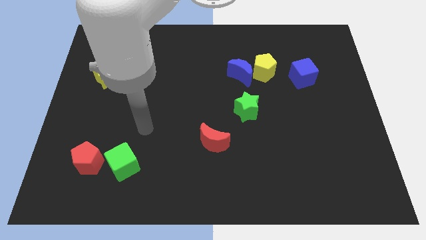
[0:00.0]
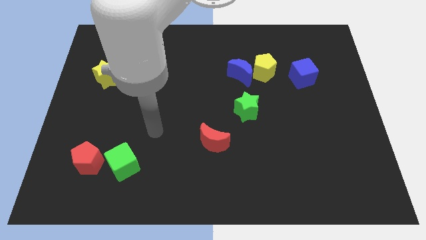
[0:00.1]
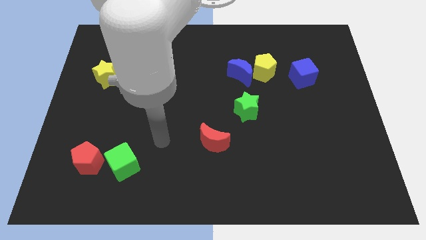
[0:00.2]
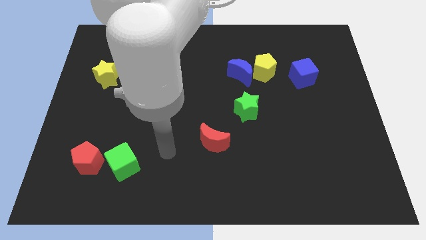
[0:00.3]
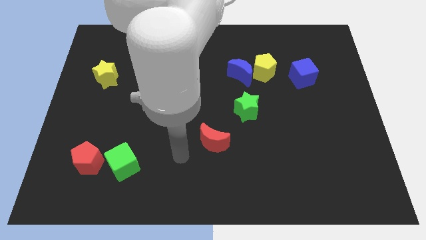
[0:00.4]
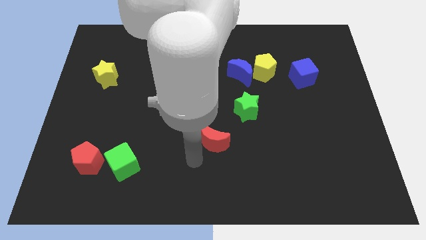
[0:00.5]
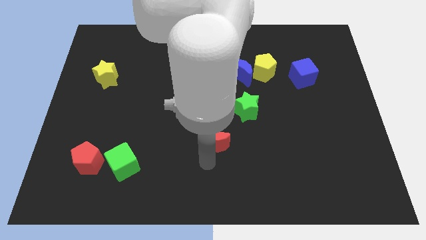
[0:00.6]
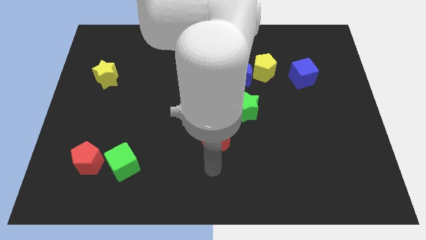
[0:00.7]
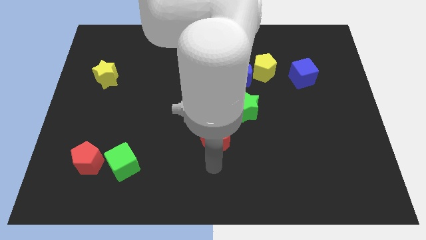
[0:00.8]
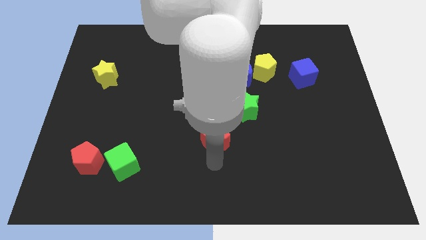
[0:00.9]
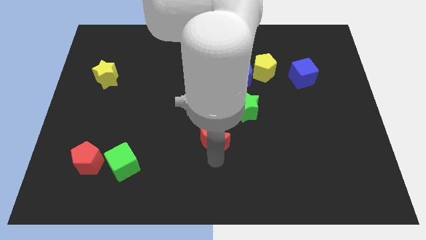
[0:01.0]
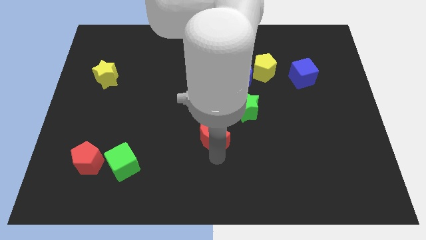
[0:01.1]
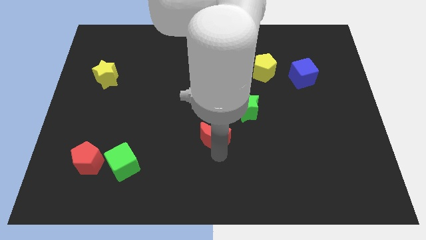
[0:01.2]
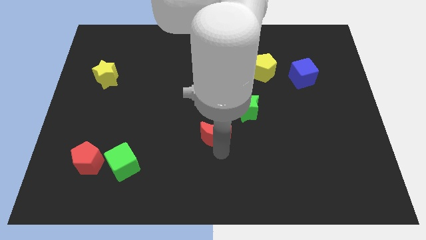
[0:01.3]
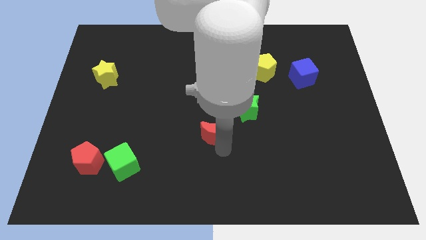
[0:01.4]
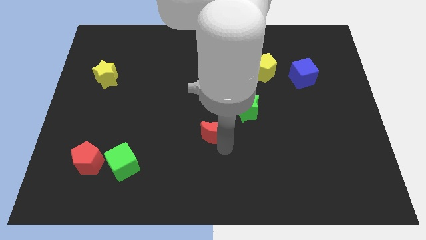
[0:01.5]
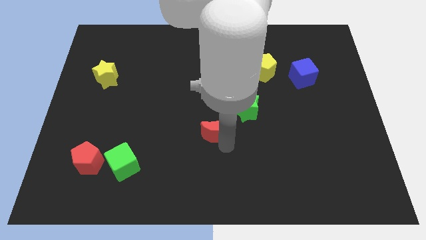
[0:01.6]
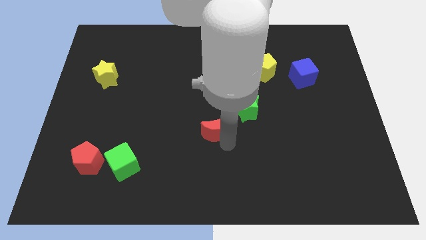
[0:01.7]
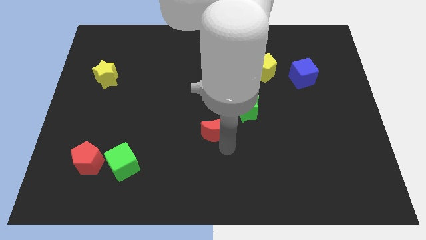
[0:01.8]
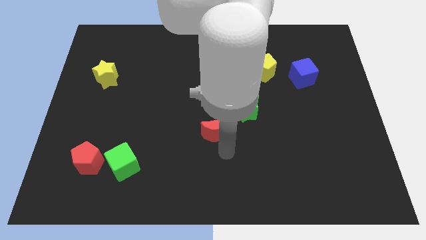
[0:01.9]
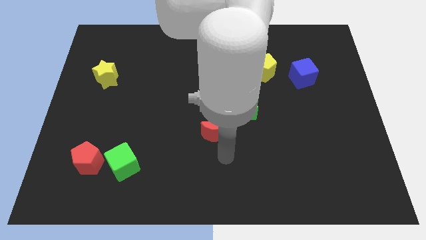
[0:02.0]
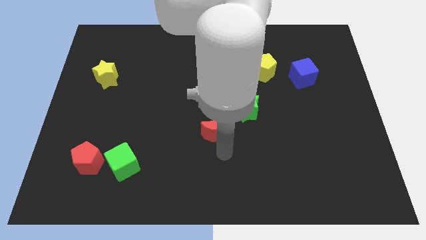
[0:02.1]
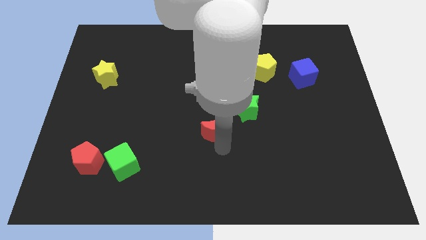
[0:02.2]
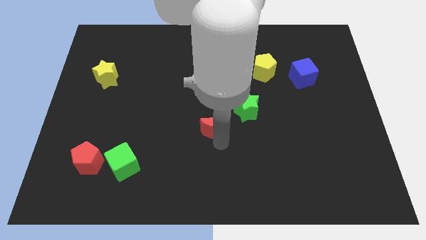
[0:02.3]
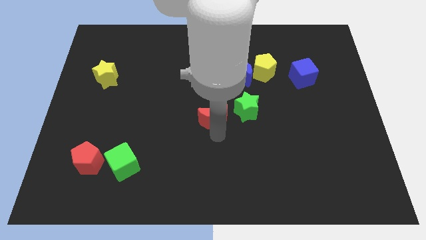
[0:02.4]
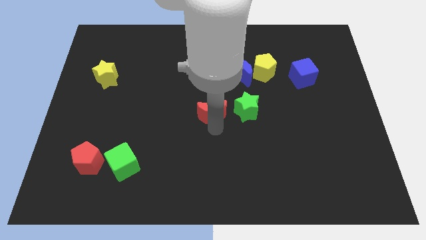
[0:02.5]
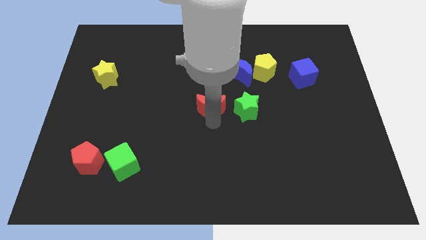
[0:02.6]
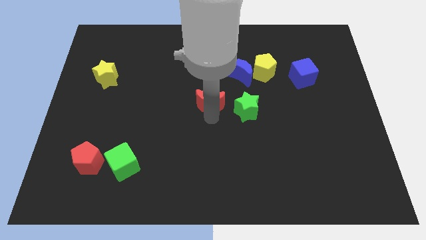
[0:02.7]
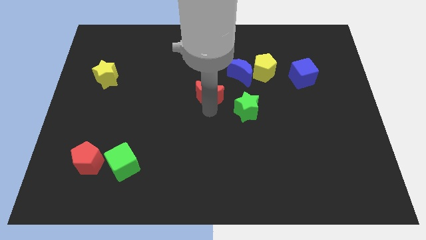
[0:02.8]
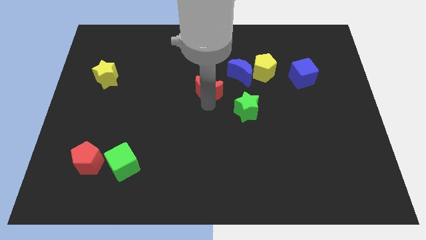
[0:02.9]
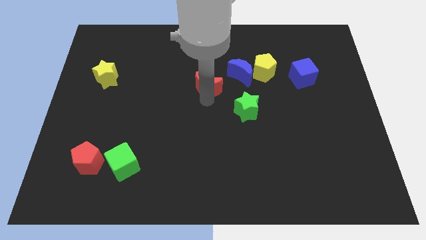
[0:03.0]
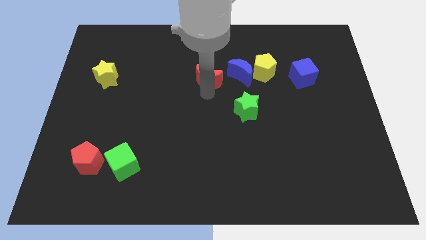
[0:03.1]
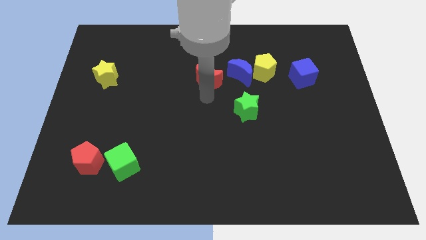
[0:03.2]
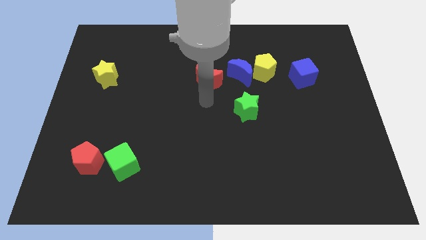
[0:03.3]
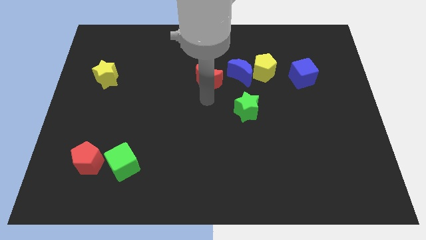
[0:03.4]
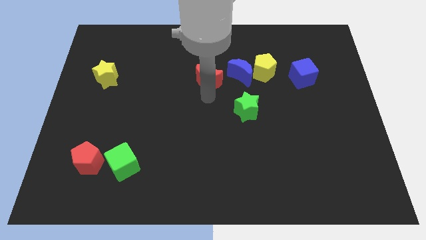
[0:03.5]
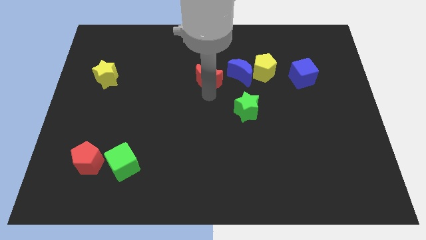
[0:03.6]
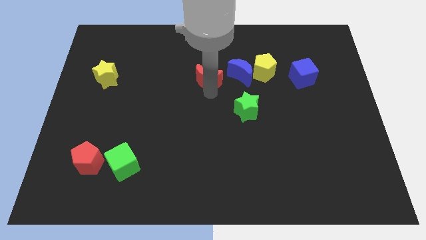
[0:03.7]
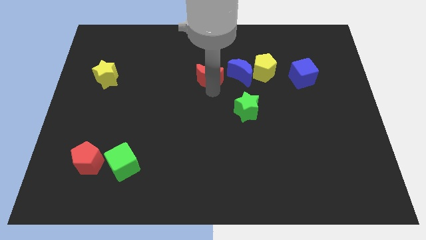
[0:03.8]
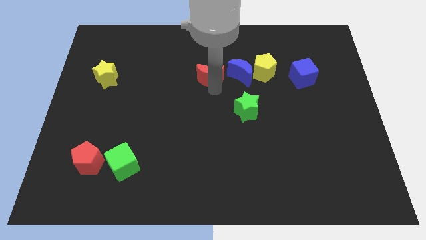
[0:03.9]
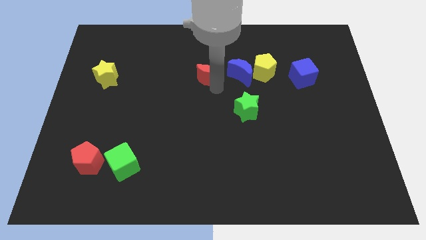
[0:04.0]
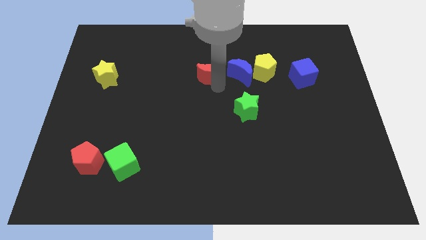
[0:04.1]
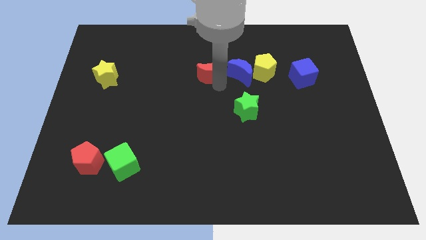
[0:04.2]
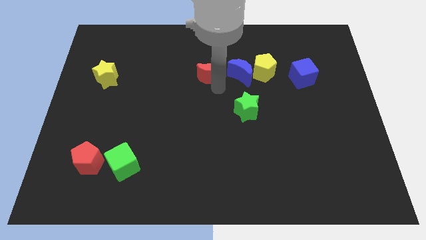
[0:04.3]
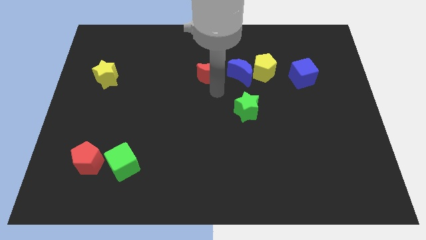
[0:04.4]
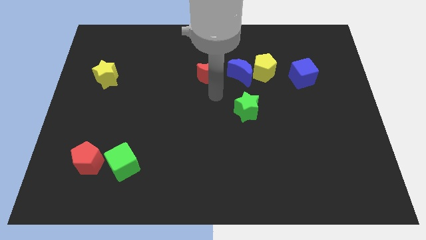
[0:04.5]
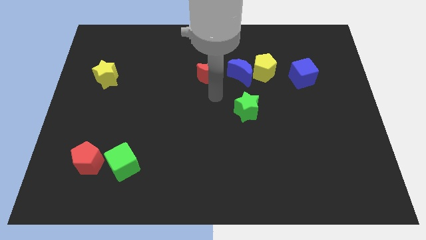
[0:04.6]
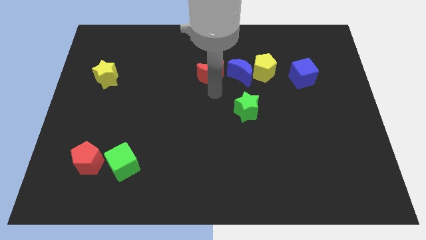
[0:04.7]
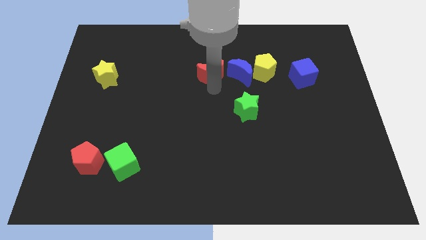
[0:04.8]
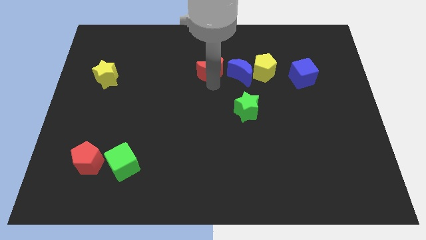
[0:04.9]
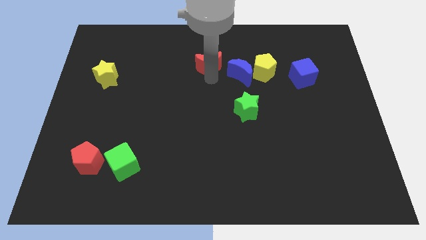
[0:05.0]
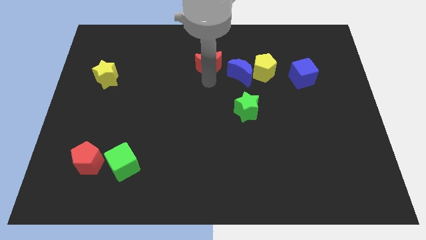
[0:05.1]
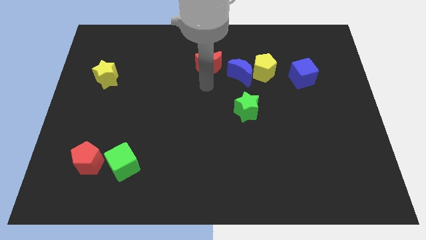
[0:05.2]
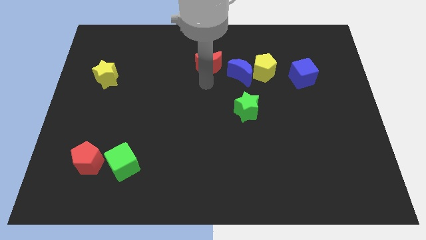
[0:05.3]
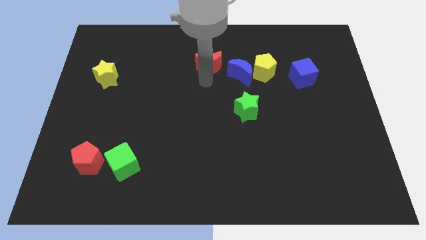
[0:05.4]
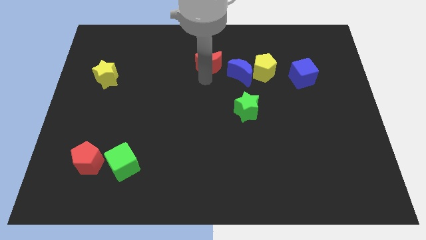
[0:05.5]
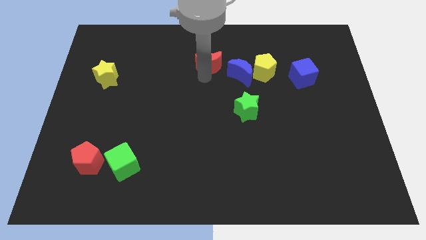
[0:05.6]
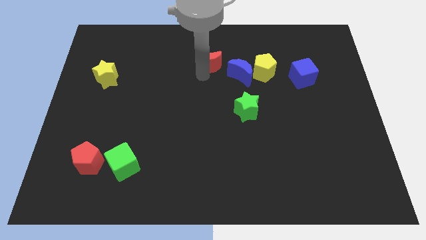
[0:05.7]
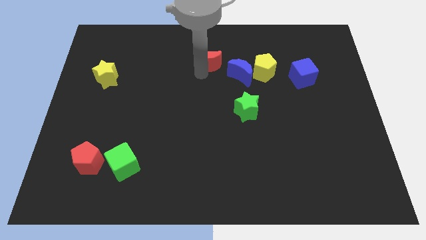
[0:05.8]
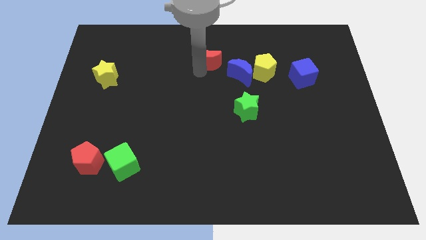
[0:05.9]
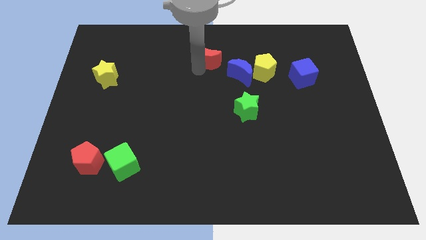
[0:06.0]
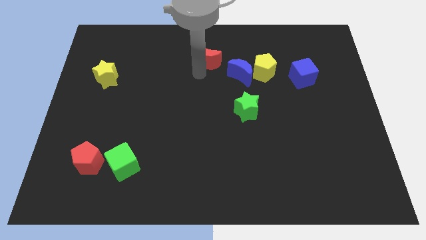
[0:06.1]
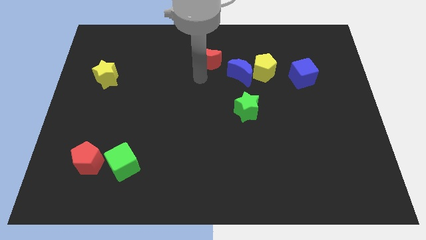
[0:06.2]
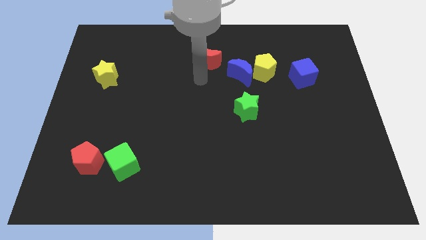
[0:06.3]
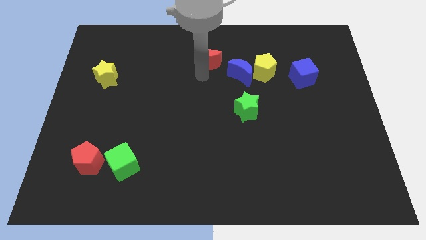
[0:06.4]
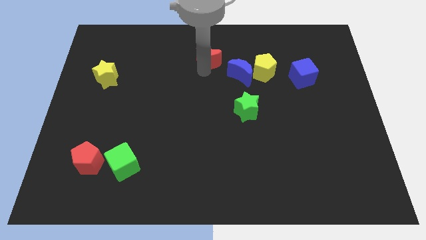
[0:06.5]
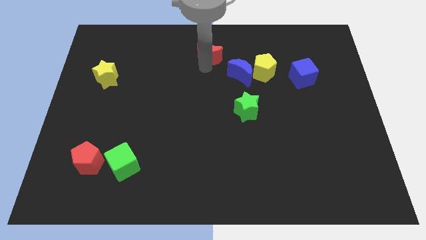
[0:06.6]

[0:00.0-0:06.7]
move the red moon to the towards your base
